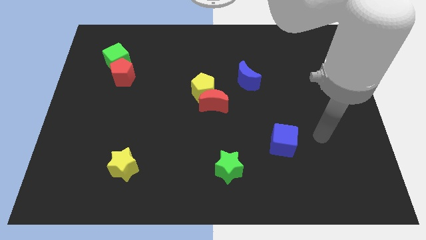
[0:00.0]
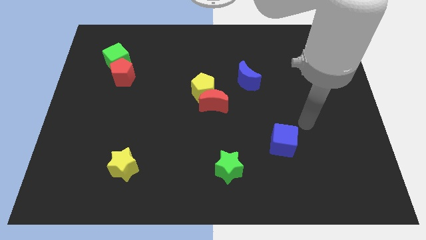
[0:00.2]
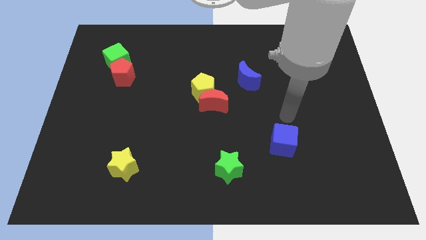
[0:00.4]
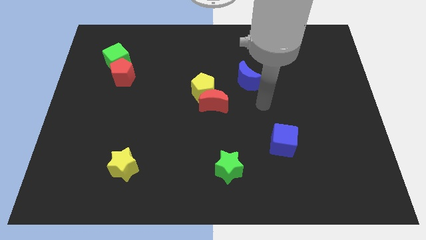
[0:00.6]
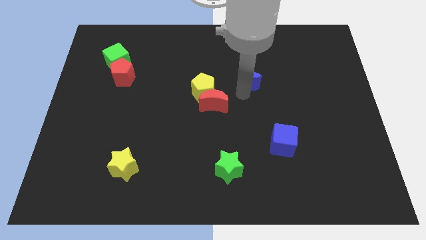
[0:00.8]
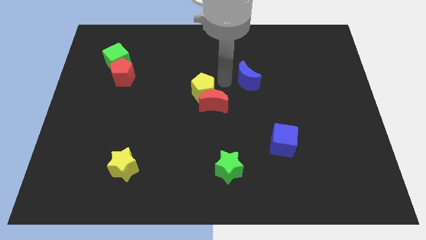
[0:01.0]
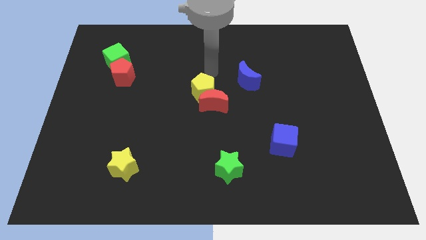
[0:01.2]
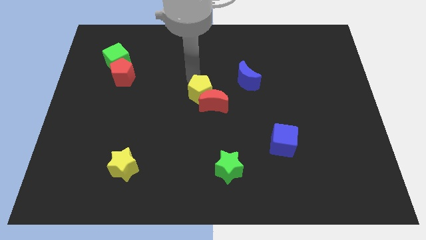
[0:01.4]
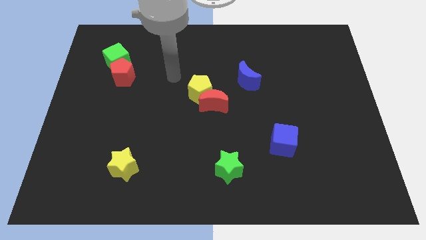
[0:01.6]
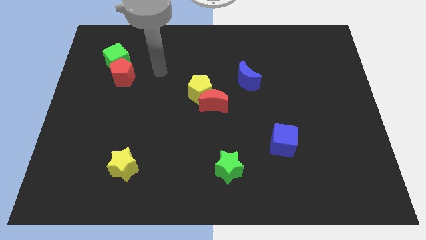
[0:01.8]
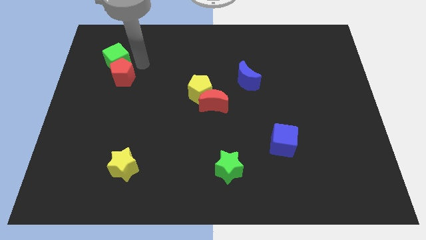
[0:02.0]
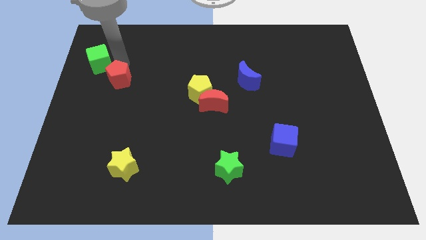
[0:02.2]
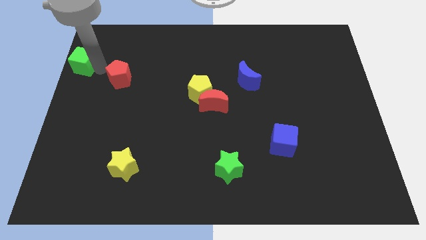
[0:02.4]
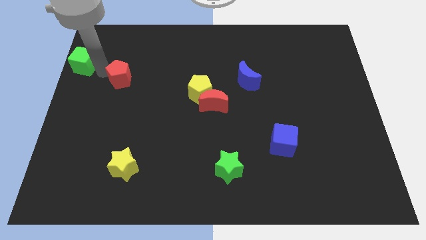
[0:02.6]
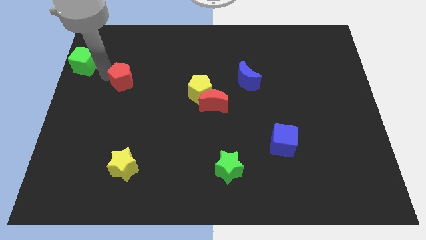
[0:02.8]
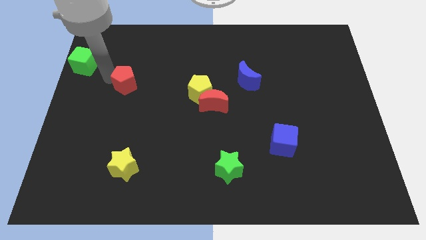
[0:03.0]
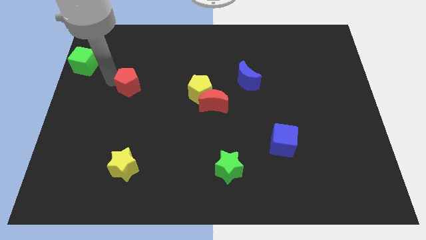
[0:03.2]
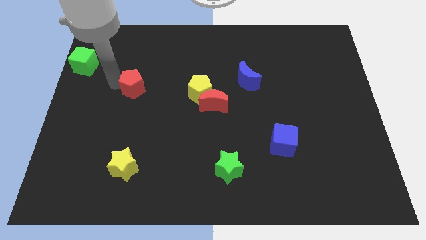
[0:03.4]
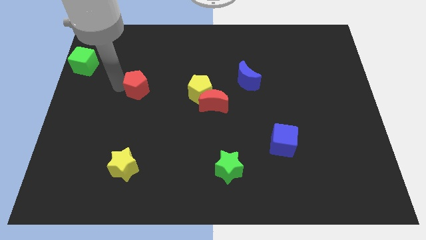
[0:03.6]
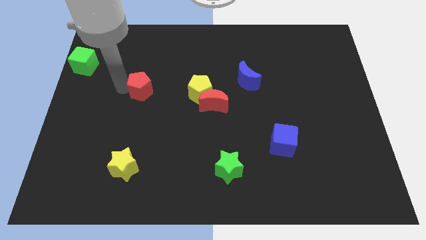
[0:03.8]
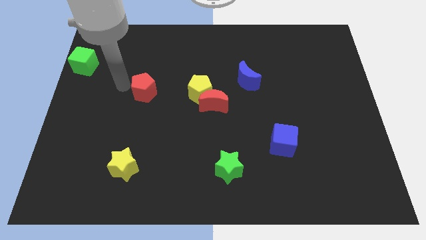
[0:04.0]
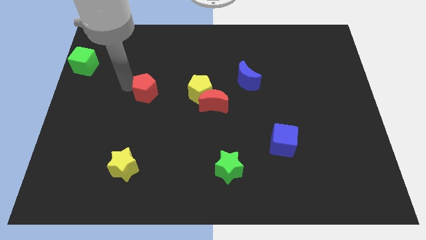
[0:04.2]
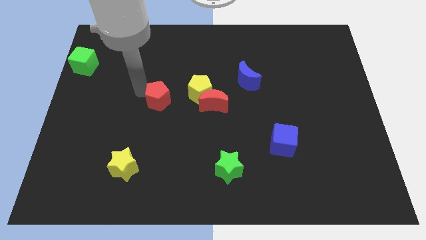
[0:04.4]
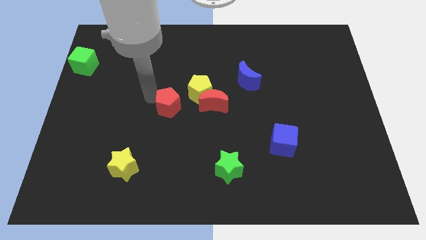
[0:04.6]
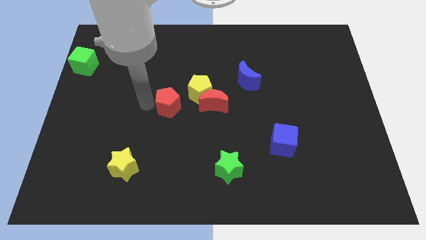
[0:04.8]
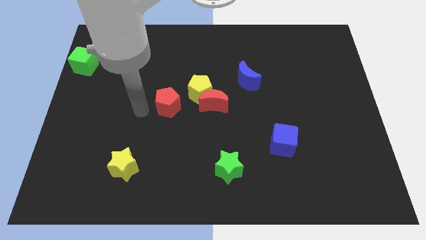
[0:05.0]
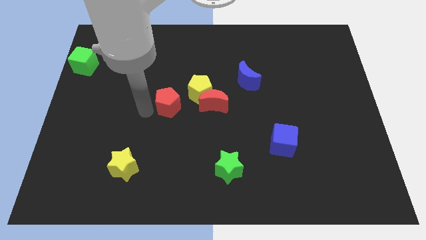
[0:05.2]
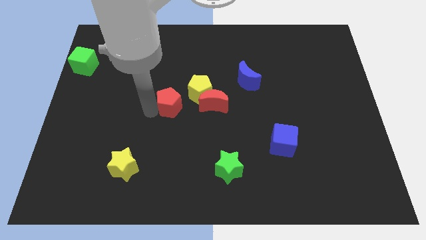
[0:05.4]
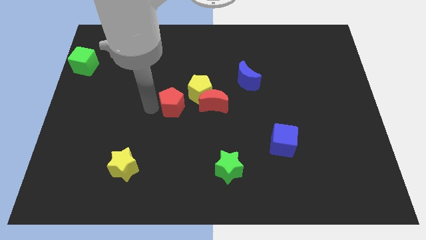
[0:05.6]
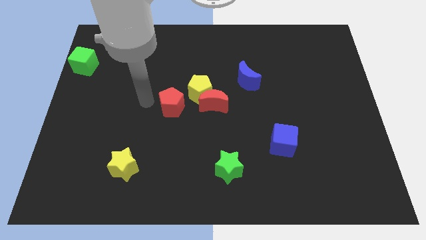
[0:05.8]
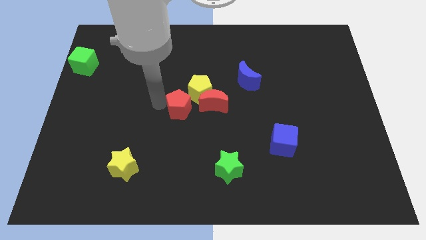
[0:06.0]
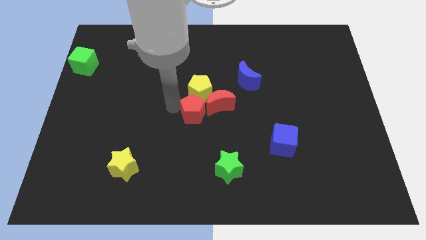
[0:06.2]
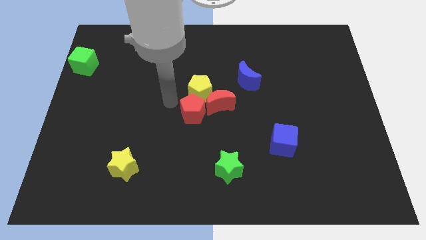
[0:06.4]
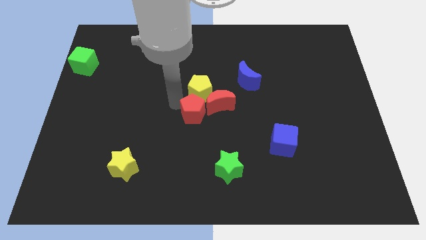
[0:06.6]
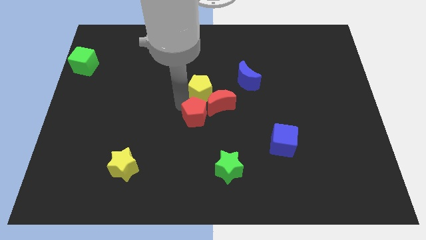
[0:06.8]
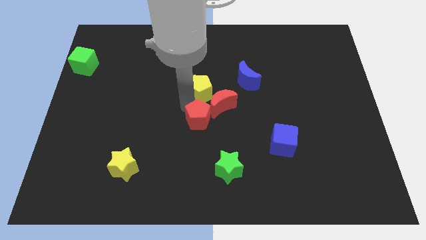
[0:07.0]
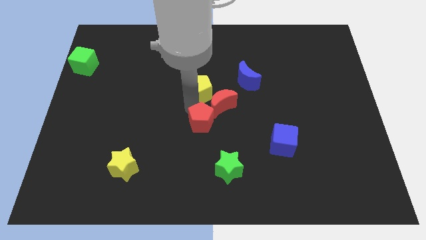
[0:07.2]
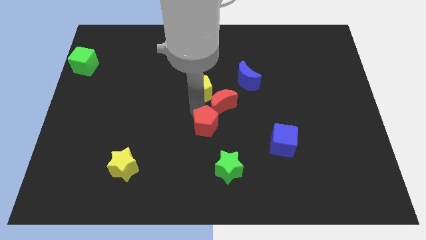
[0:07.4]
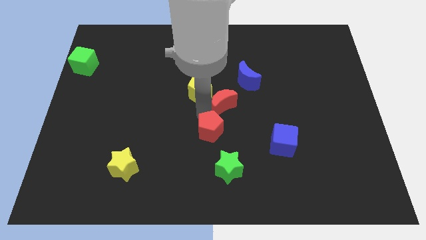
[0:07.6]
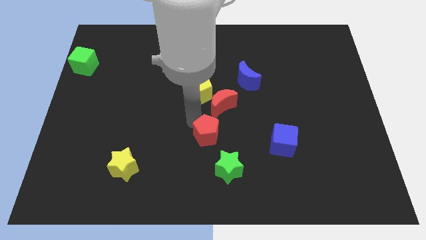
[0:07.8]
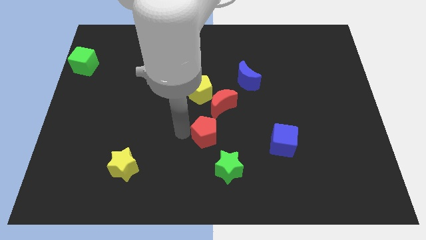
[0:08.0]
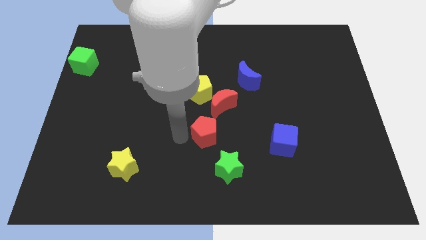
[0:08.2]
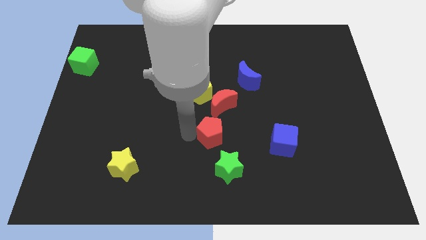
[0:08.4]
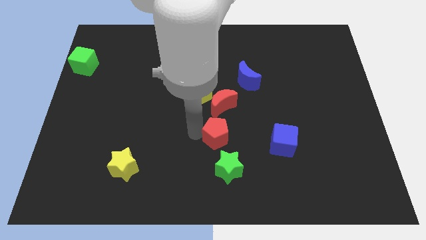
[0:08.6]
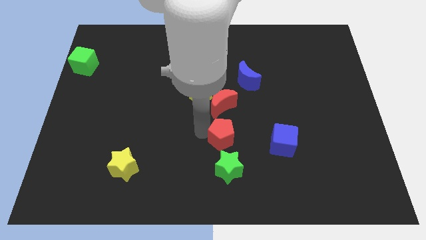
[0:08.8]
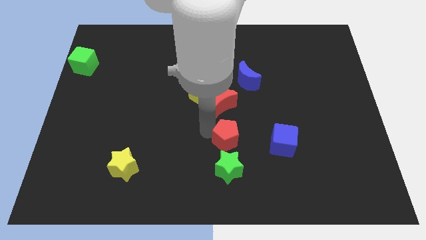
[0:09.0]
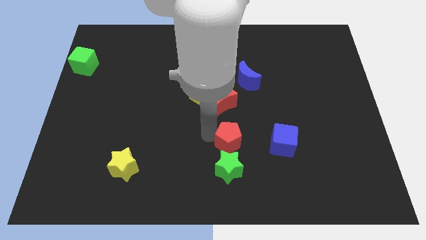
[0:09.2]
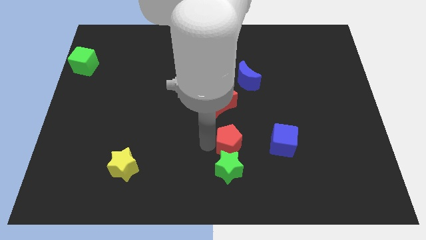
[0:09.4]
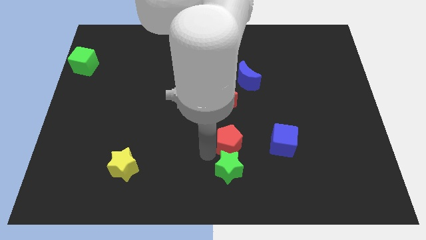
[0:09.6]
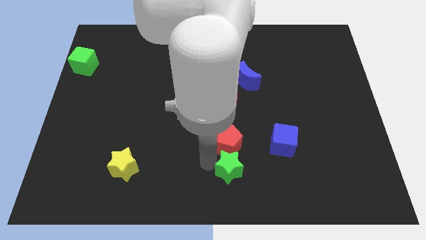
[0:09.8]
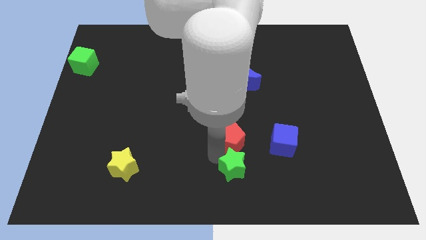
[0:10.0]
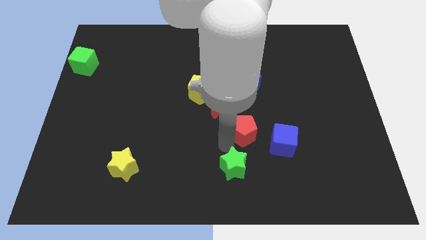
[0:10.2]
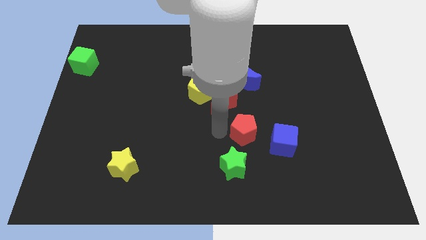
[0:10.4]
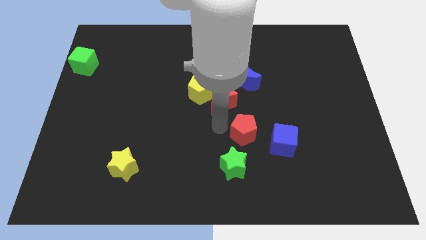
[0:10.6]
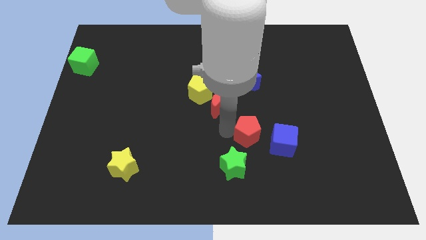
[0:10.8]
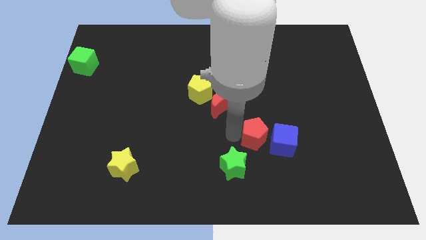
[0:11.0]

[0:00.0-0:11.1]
move the red pentagon towards the blue cube

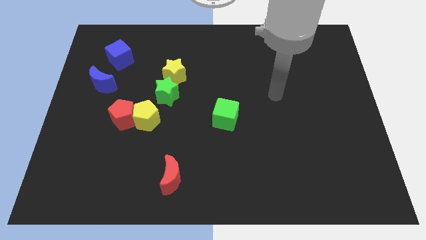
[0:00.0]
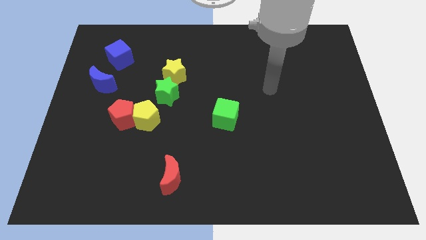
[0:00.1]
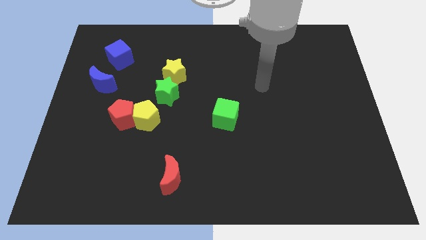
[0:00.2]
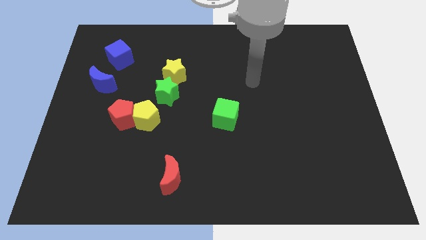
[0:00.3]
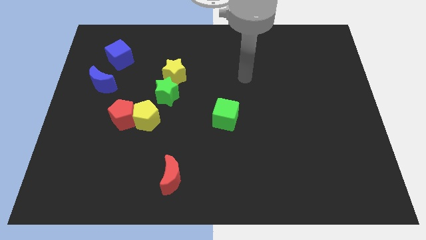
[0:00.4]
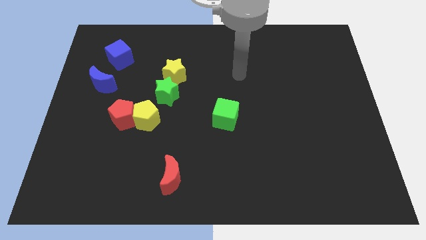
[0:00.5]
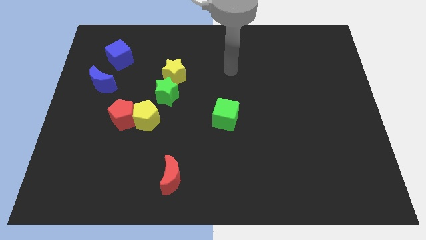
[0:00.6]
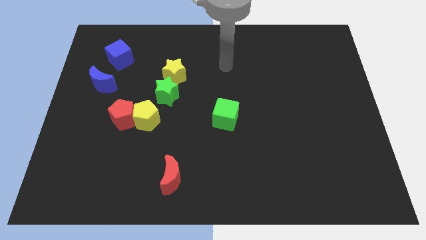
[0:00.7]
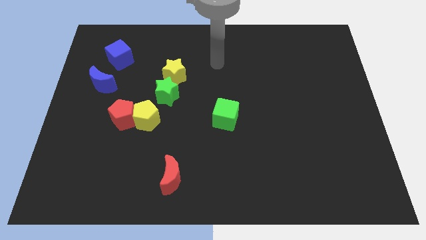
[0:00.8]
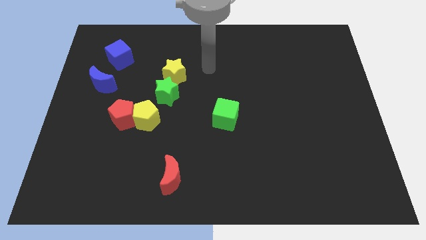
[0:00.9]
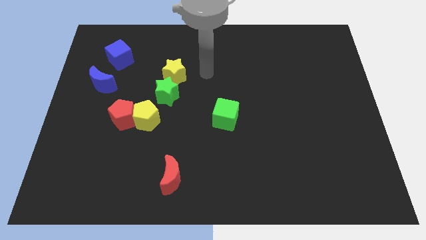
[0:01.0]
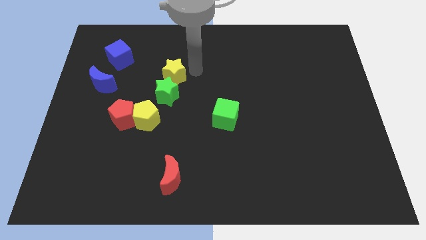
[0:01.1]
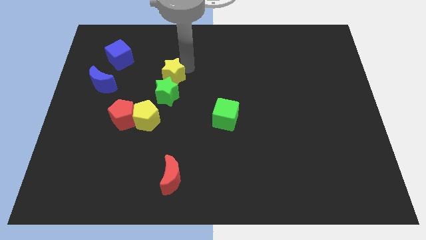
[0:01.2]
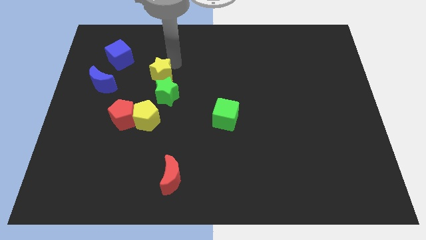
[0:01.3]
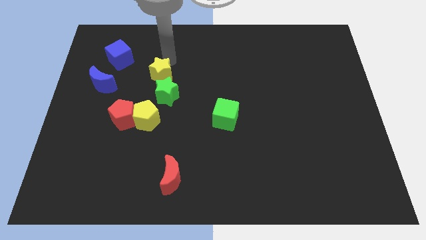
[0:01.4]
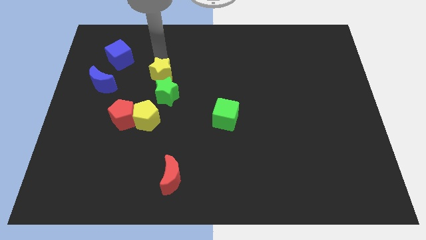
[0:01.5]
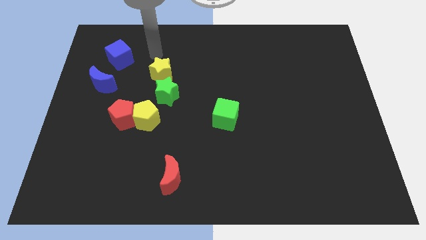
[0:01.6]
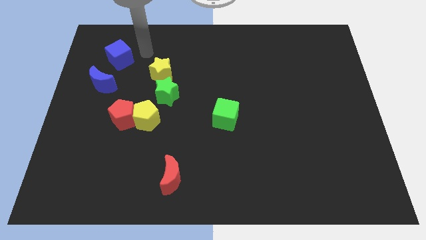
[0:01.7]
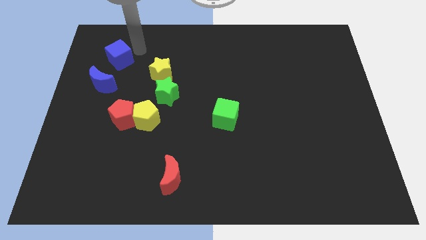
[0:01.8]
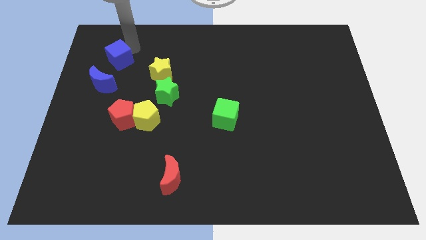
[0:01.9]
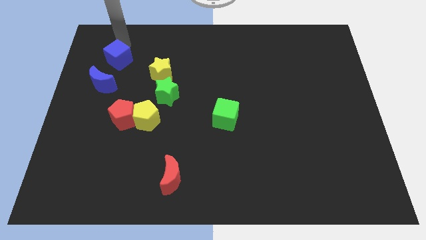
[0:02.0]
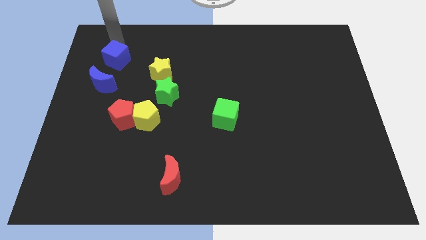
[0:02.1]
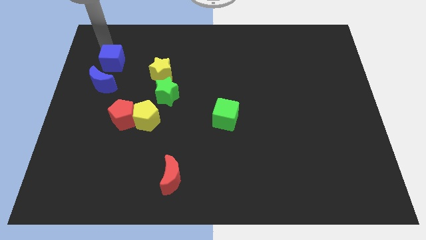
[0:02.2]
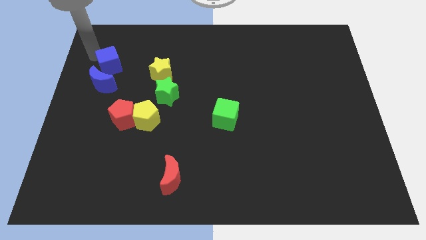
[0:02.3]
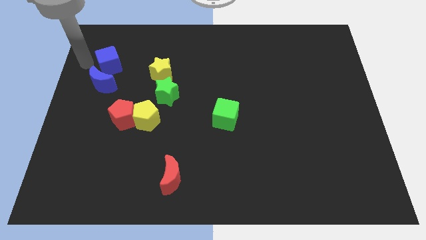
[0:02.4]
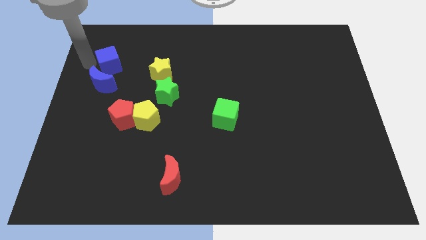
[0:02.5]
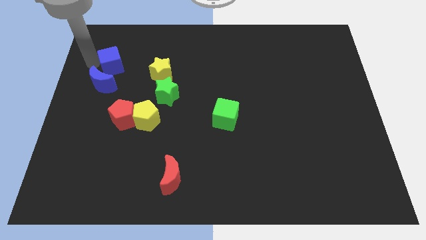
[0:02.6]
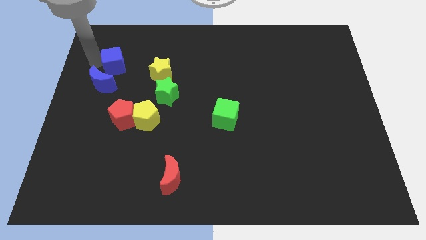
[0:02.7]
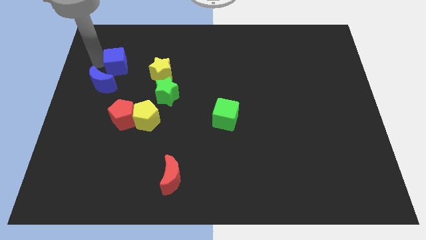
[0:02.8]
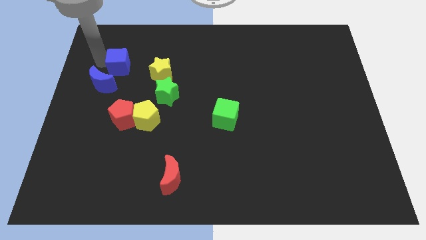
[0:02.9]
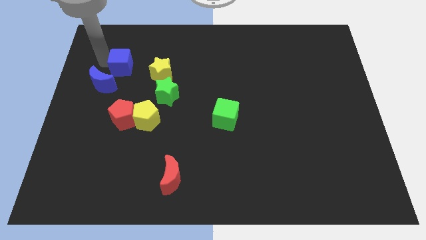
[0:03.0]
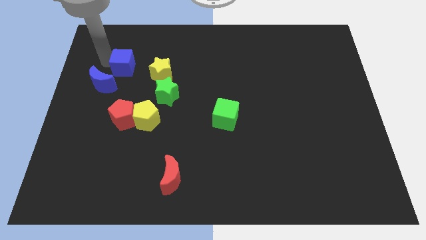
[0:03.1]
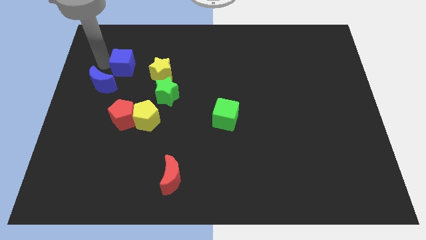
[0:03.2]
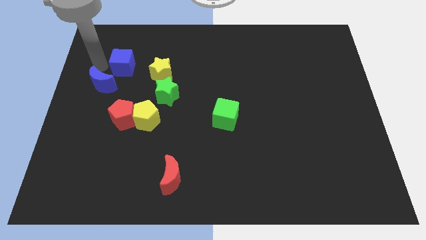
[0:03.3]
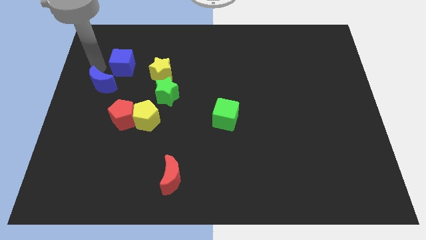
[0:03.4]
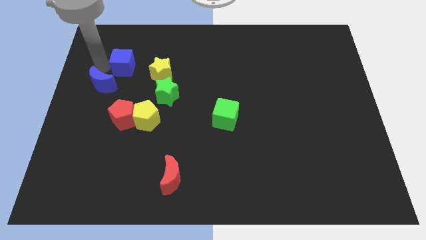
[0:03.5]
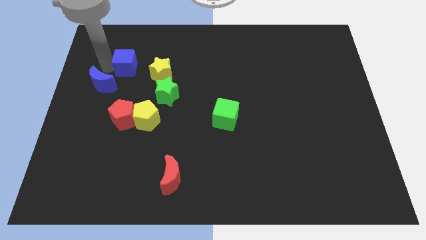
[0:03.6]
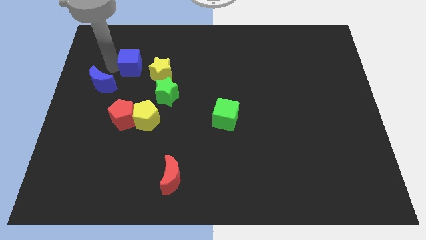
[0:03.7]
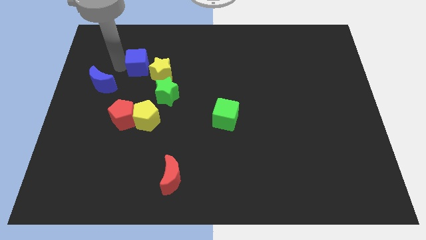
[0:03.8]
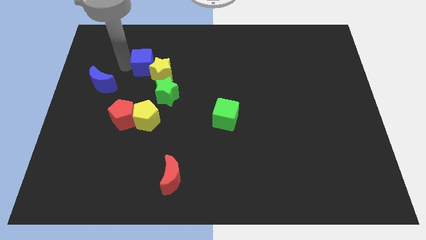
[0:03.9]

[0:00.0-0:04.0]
put the blue cube to the yellow star
